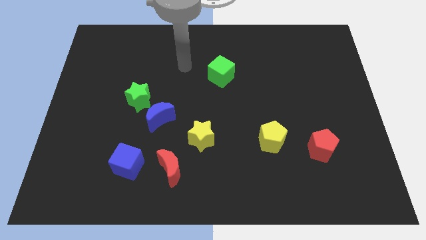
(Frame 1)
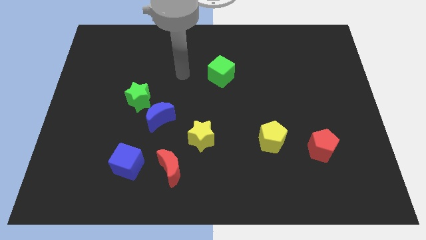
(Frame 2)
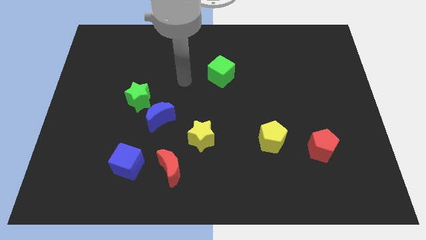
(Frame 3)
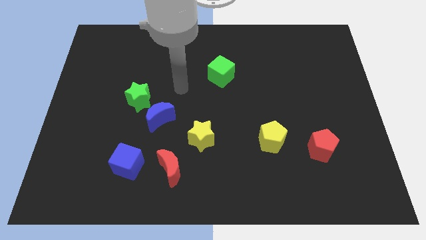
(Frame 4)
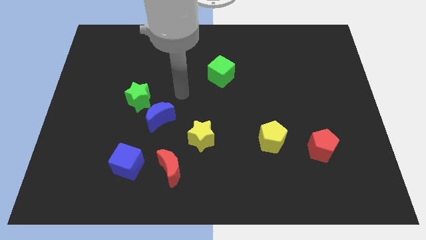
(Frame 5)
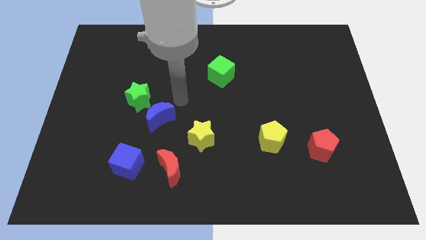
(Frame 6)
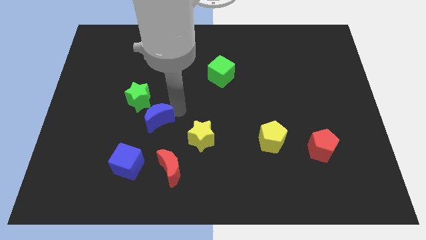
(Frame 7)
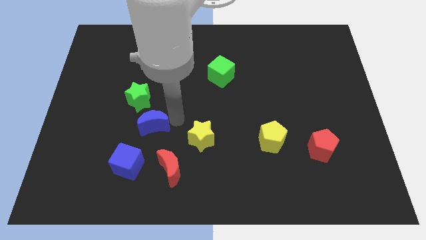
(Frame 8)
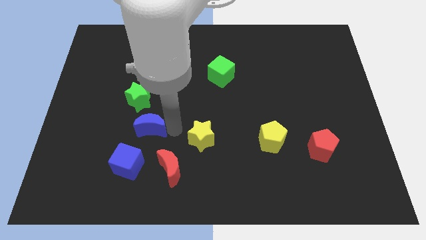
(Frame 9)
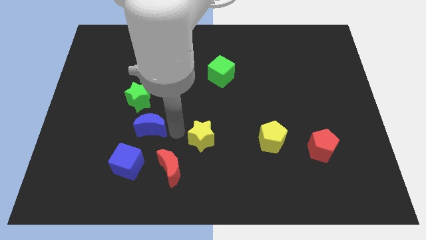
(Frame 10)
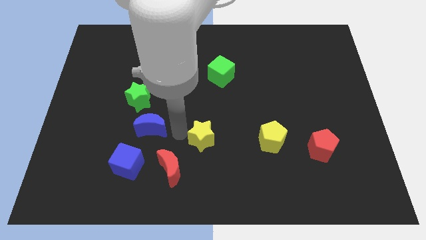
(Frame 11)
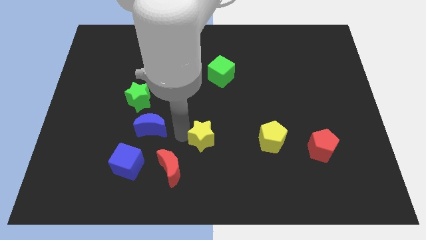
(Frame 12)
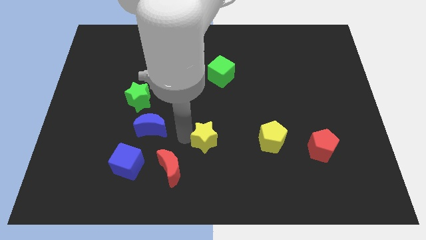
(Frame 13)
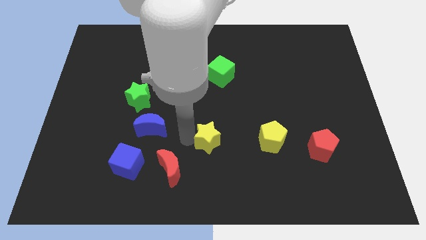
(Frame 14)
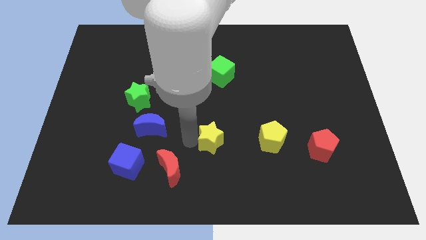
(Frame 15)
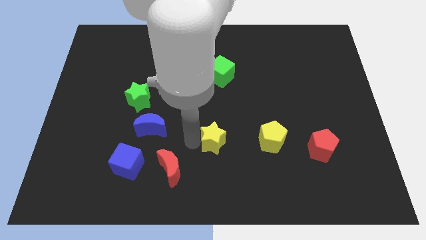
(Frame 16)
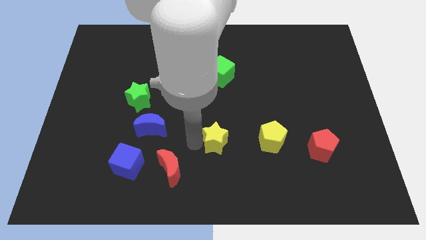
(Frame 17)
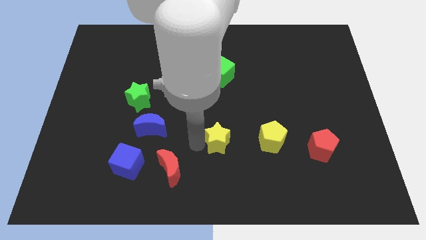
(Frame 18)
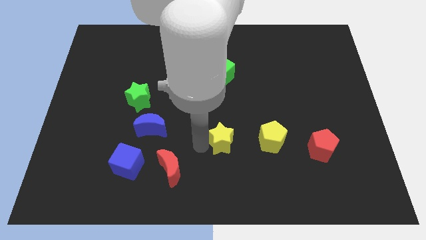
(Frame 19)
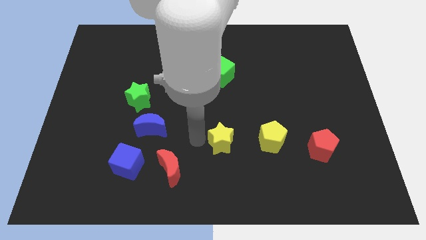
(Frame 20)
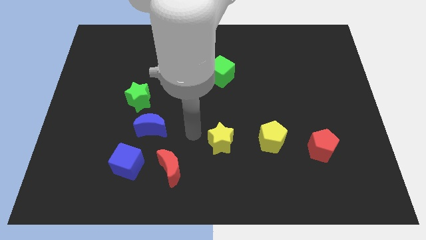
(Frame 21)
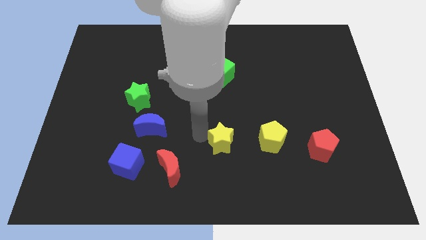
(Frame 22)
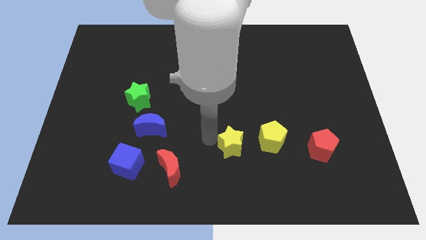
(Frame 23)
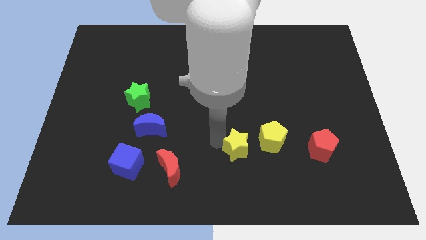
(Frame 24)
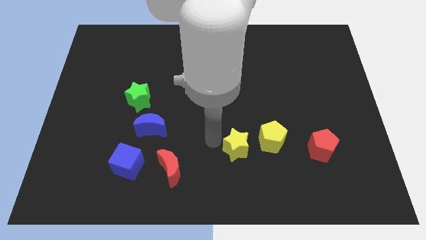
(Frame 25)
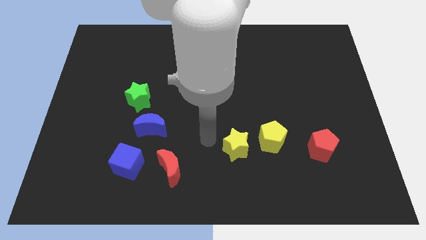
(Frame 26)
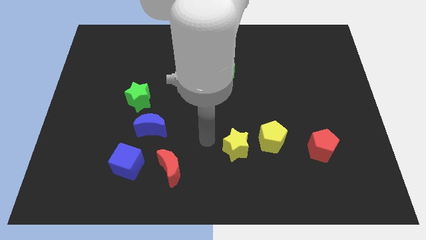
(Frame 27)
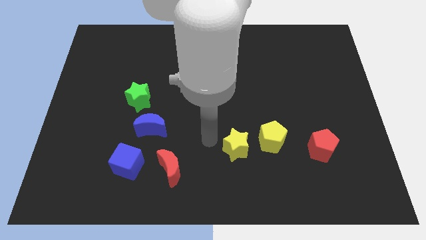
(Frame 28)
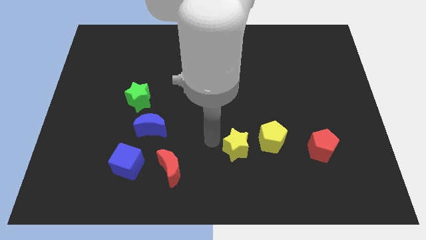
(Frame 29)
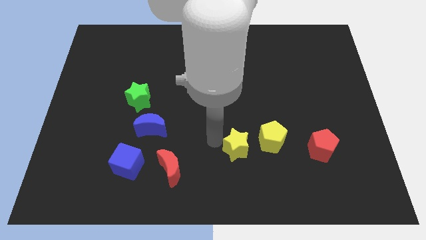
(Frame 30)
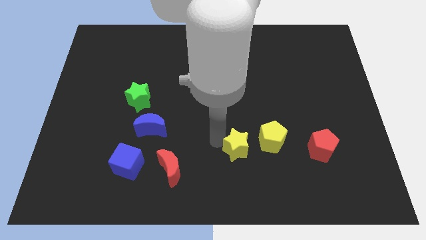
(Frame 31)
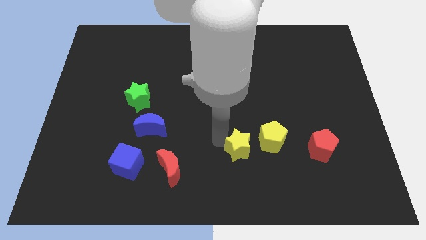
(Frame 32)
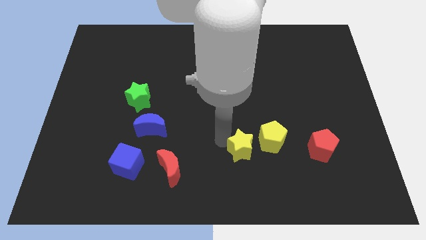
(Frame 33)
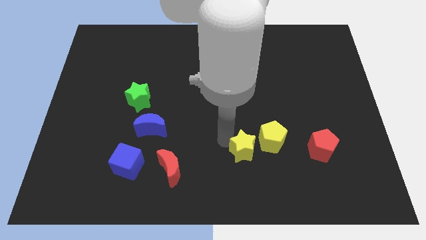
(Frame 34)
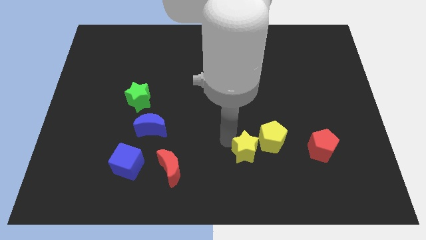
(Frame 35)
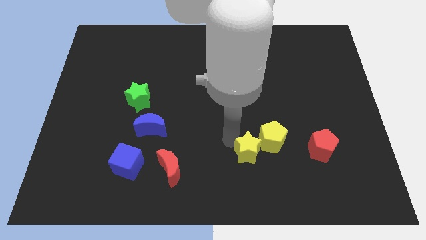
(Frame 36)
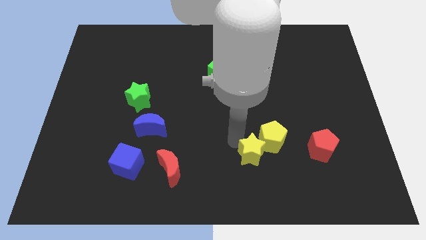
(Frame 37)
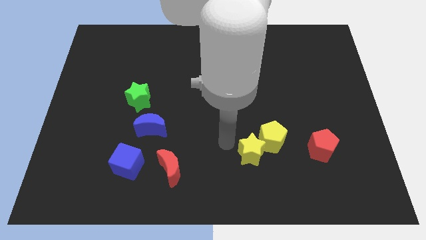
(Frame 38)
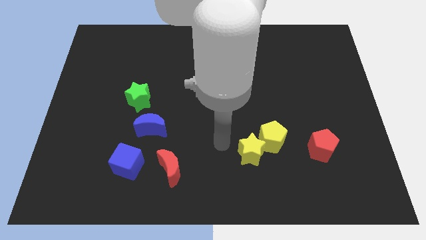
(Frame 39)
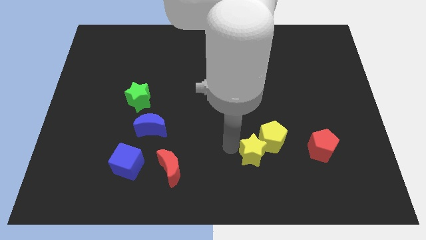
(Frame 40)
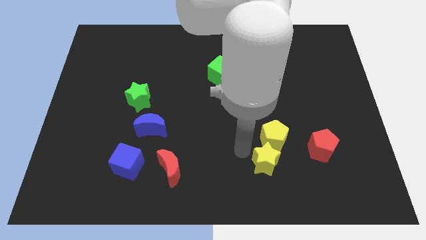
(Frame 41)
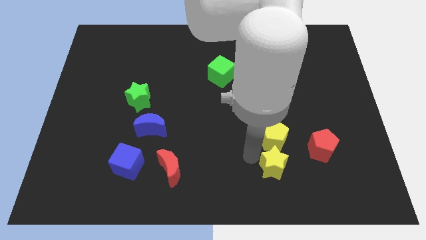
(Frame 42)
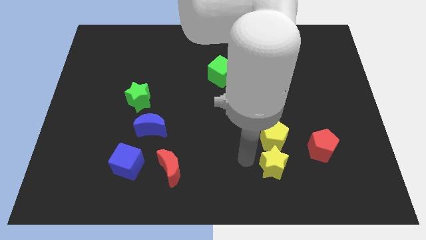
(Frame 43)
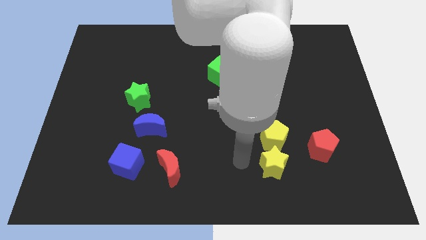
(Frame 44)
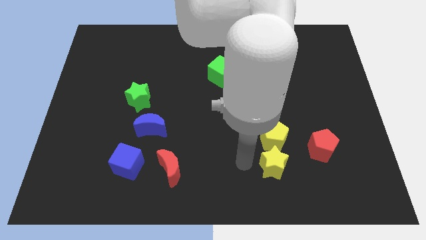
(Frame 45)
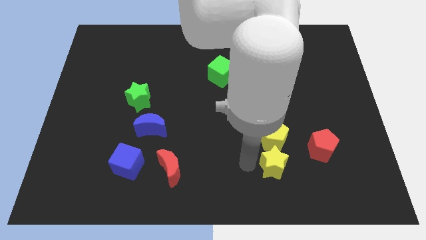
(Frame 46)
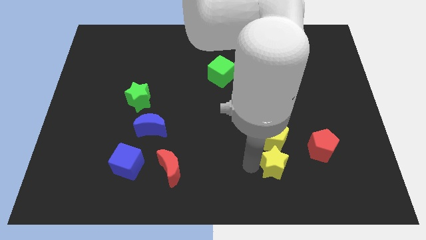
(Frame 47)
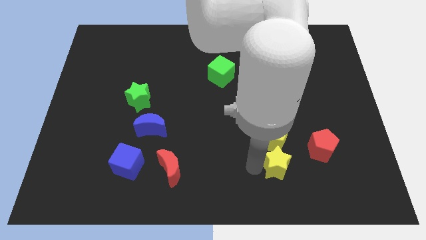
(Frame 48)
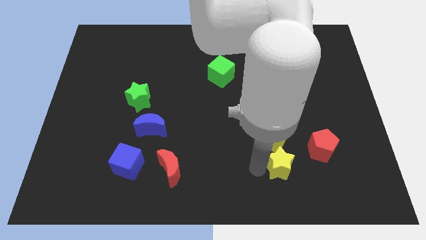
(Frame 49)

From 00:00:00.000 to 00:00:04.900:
slide the yellow star to the bottom left of the red pentagon

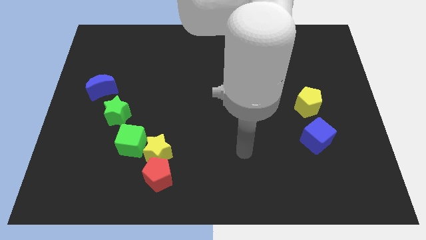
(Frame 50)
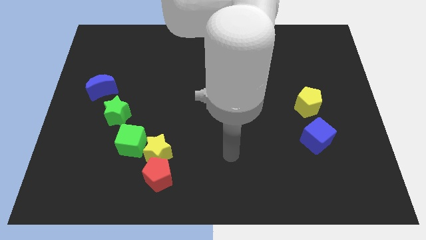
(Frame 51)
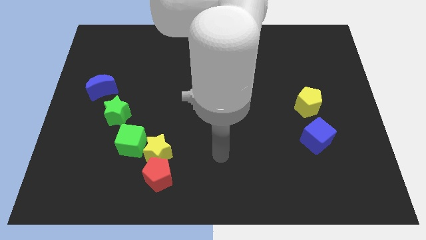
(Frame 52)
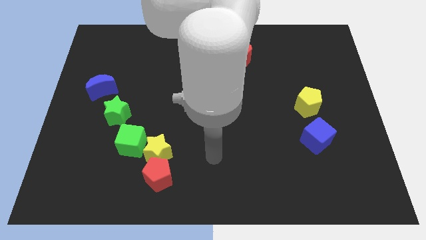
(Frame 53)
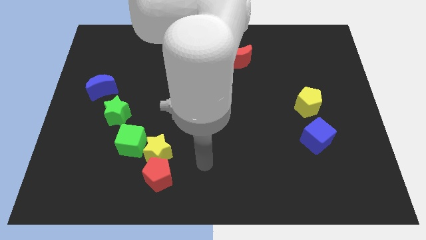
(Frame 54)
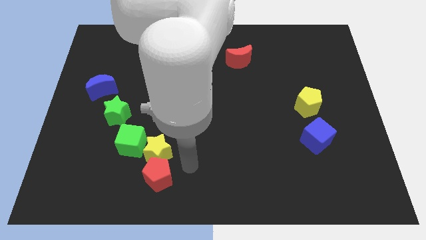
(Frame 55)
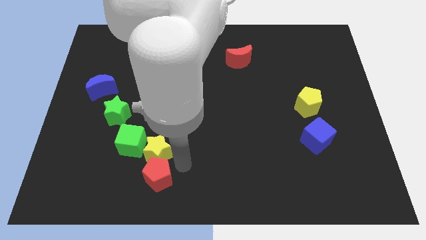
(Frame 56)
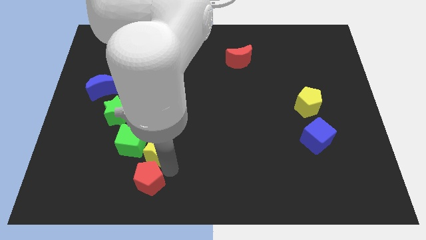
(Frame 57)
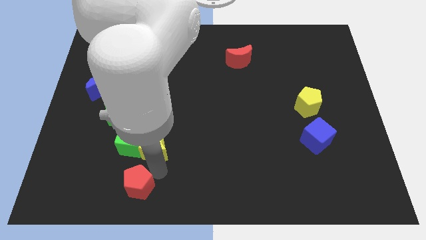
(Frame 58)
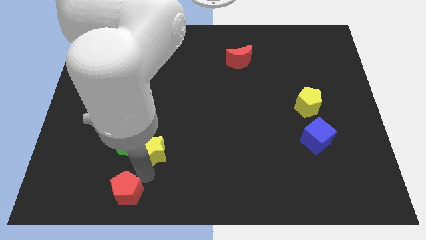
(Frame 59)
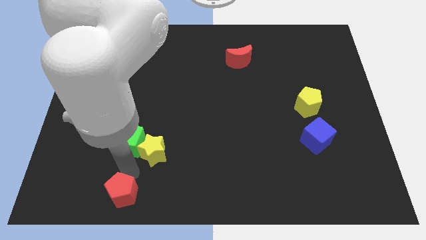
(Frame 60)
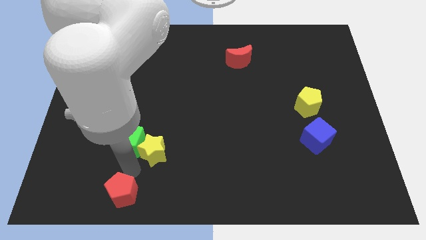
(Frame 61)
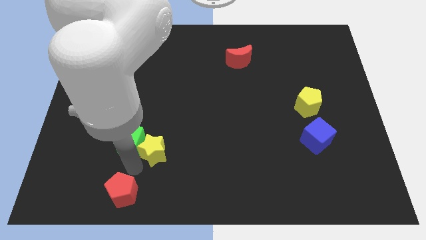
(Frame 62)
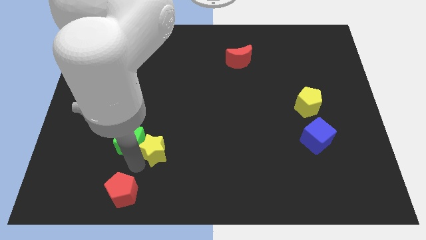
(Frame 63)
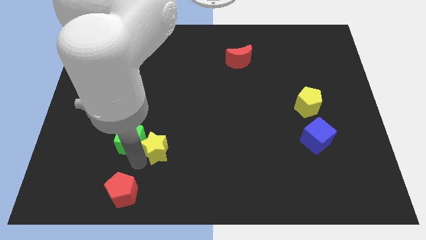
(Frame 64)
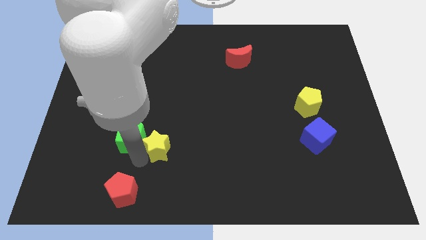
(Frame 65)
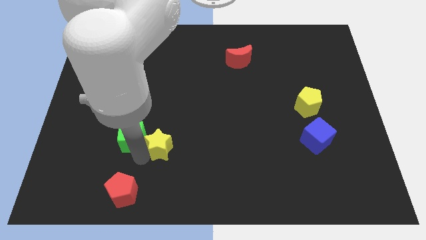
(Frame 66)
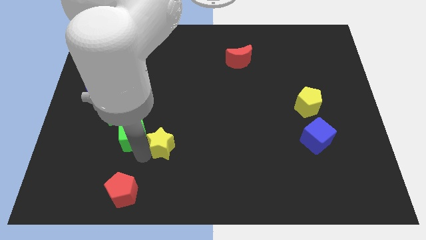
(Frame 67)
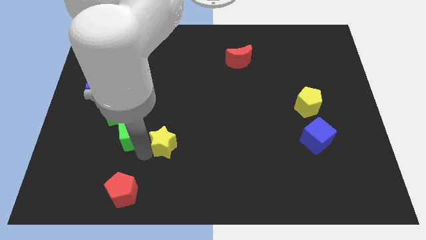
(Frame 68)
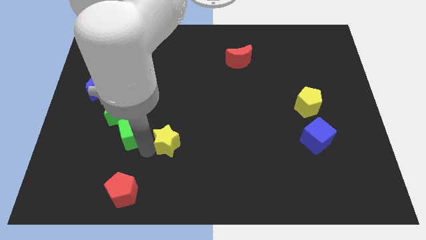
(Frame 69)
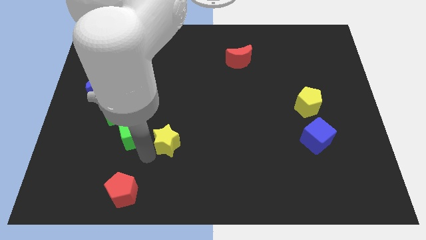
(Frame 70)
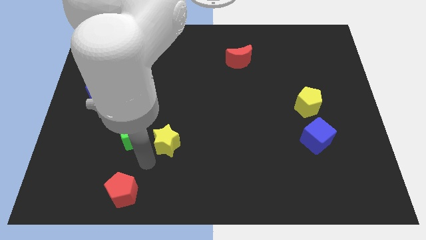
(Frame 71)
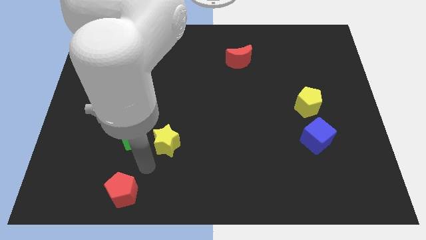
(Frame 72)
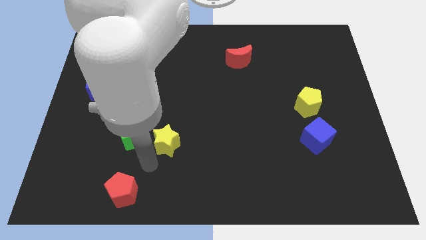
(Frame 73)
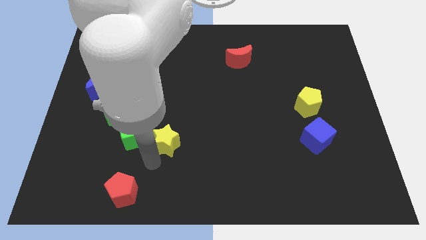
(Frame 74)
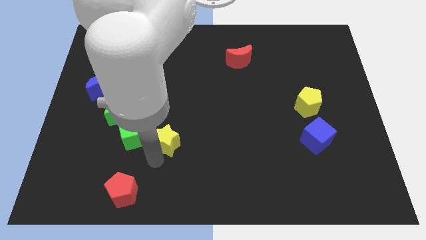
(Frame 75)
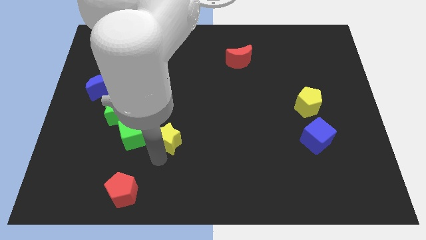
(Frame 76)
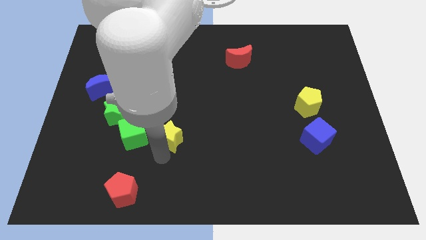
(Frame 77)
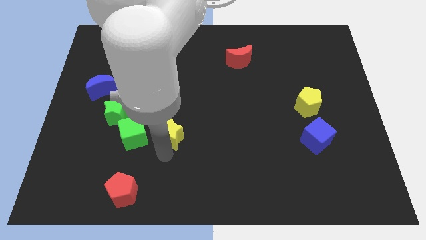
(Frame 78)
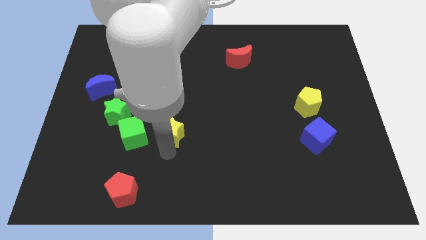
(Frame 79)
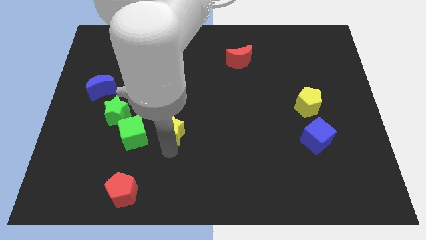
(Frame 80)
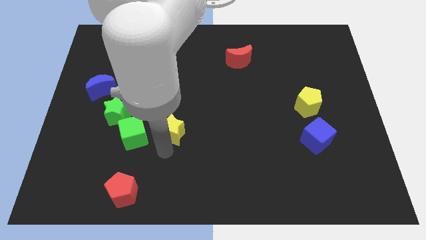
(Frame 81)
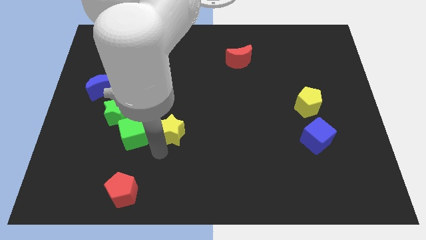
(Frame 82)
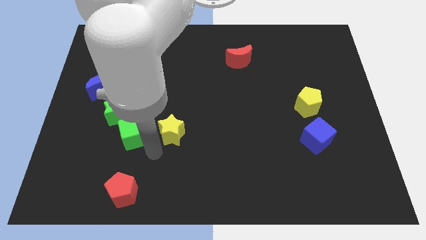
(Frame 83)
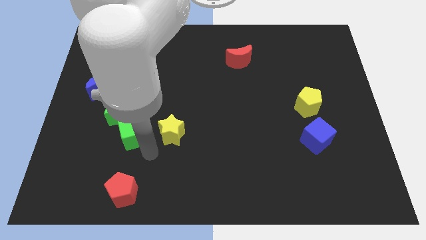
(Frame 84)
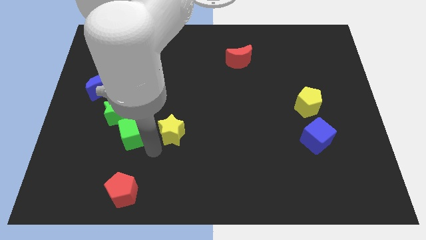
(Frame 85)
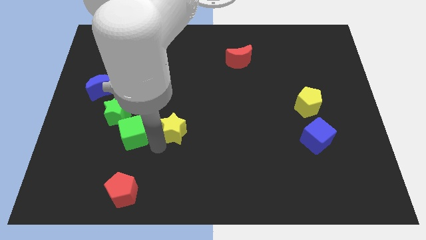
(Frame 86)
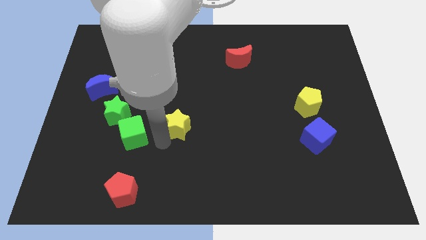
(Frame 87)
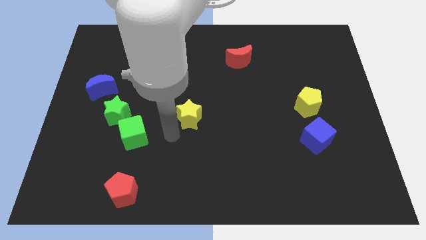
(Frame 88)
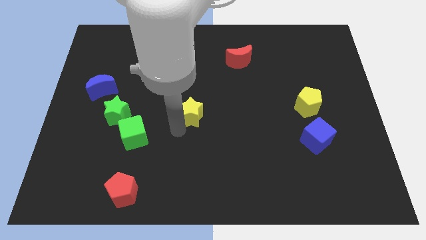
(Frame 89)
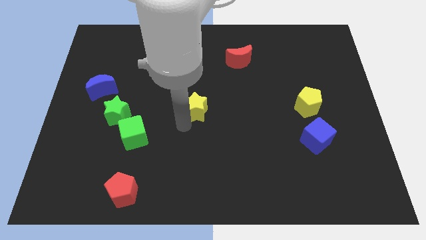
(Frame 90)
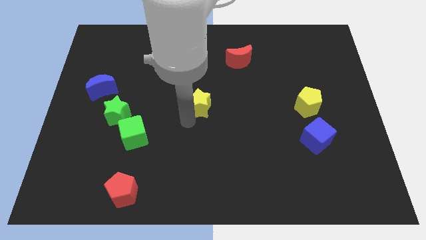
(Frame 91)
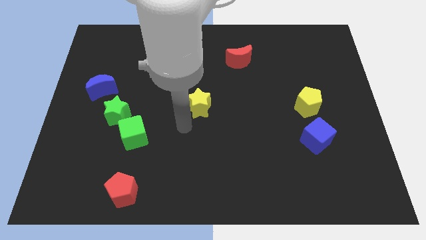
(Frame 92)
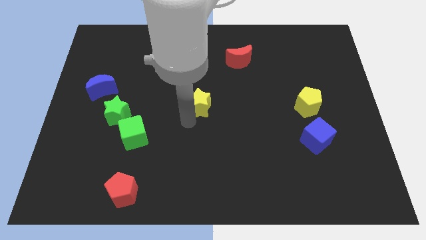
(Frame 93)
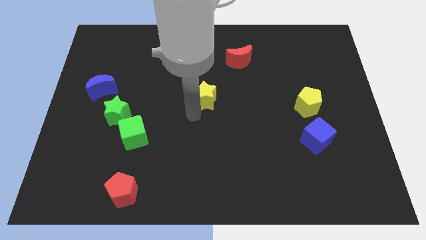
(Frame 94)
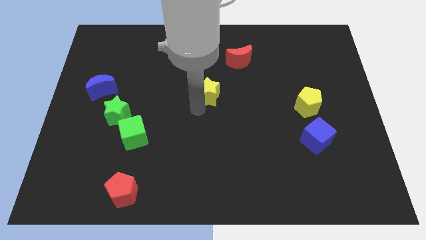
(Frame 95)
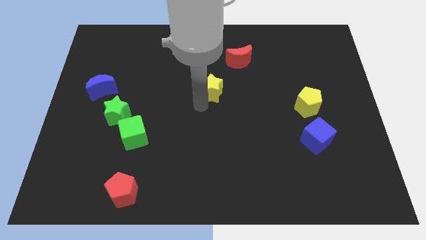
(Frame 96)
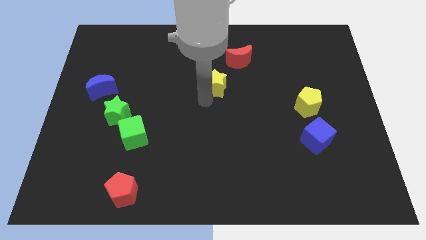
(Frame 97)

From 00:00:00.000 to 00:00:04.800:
push the yellow star diagonally down and to the left of the red moon
